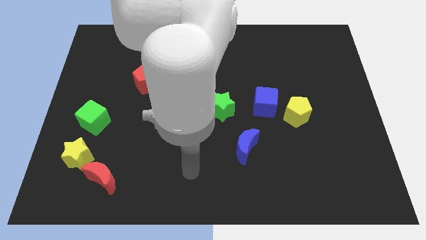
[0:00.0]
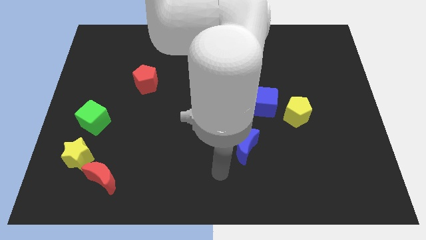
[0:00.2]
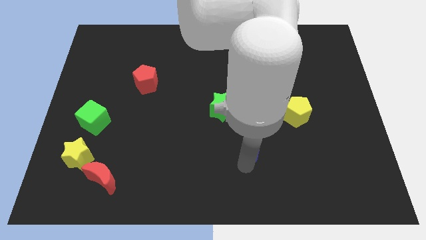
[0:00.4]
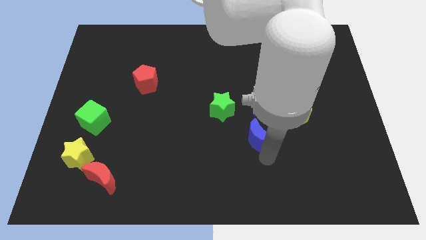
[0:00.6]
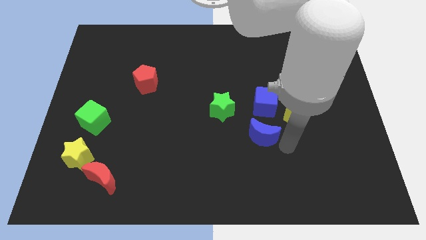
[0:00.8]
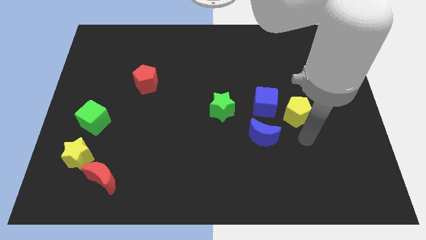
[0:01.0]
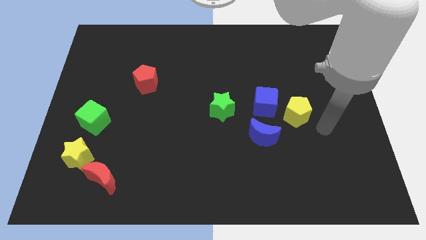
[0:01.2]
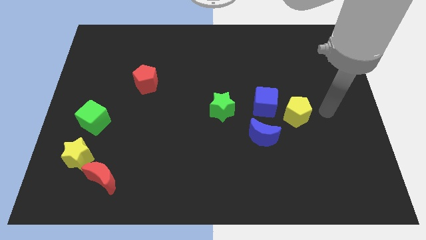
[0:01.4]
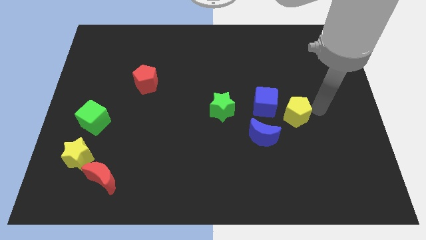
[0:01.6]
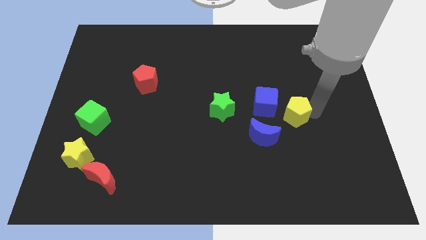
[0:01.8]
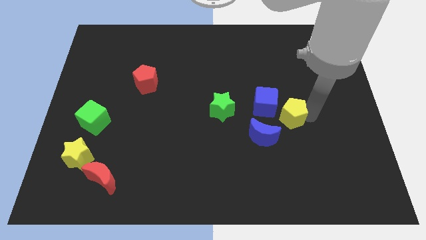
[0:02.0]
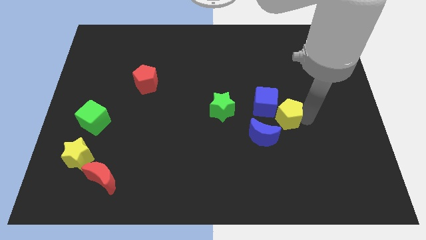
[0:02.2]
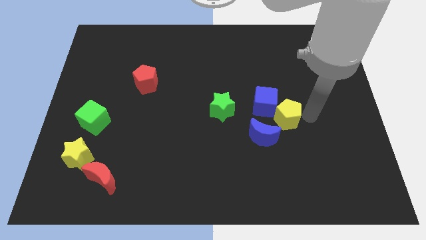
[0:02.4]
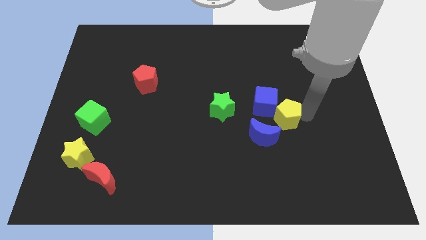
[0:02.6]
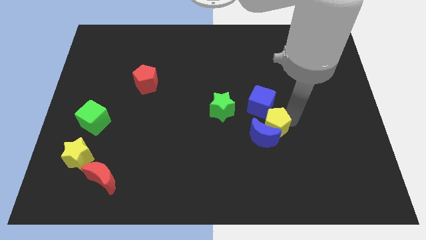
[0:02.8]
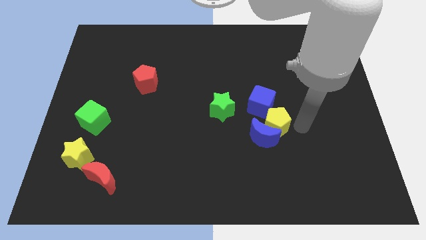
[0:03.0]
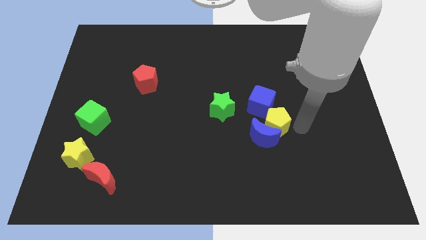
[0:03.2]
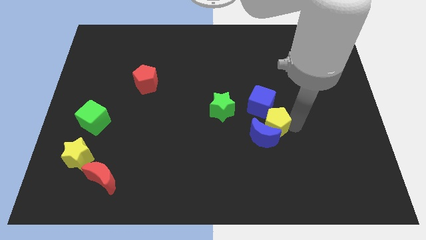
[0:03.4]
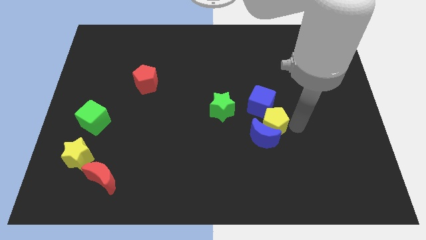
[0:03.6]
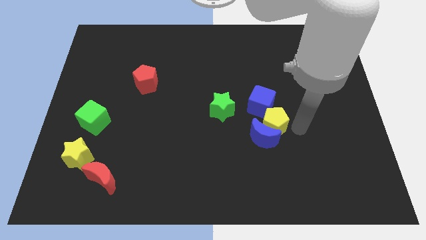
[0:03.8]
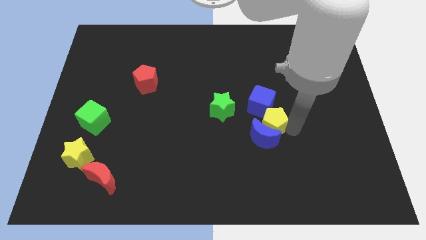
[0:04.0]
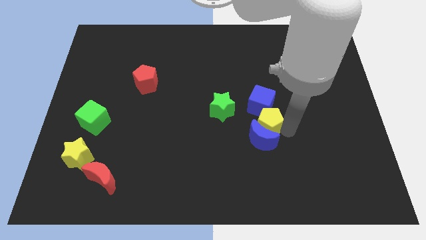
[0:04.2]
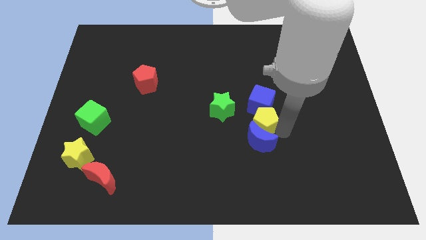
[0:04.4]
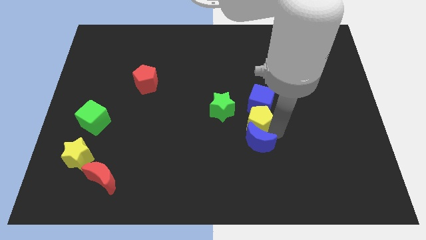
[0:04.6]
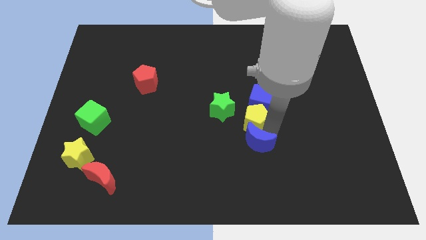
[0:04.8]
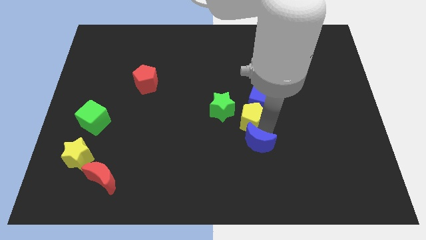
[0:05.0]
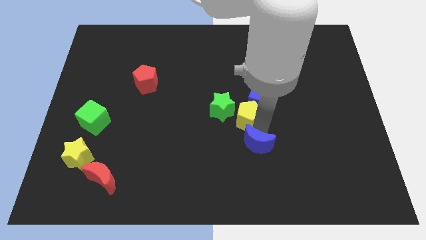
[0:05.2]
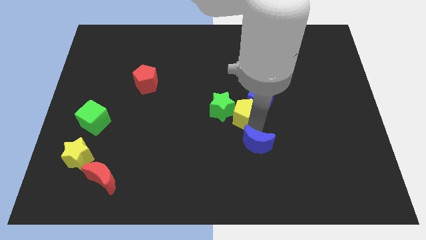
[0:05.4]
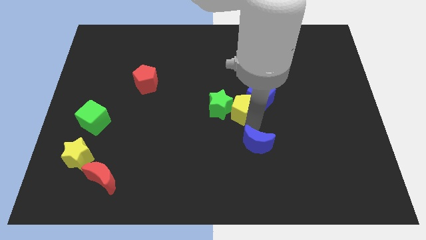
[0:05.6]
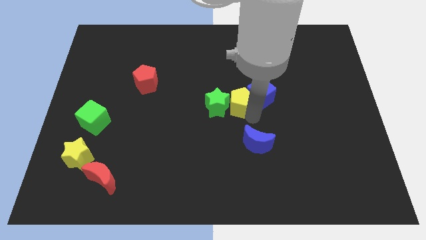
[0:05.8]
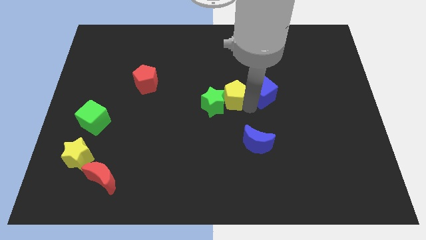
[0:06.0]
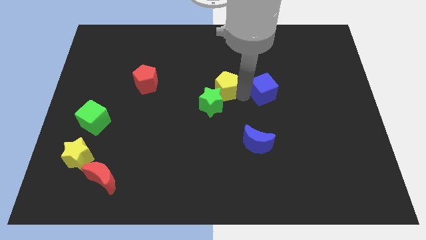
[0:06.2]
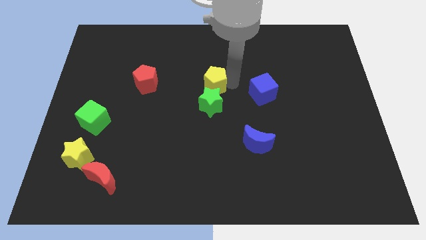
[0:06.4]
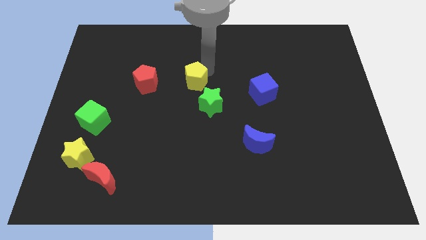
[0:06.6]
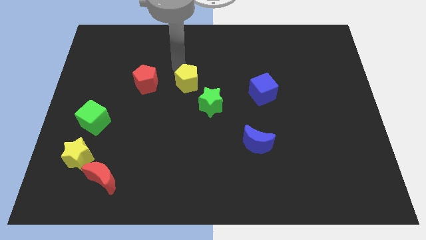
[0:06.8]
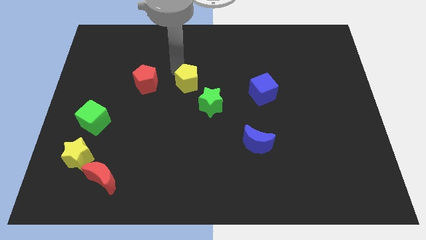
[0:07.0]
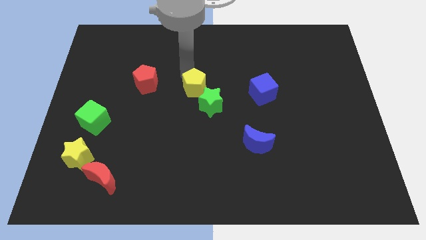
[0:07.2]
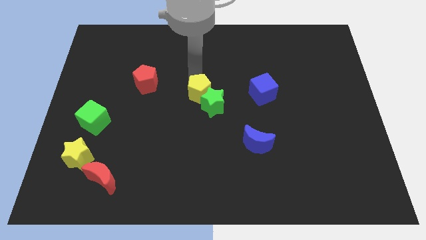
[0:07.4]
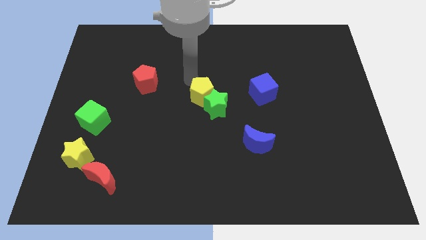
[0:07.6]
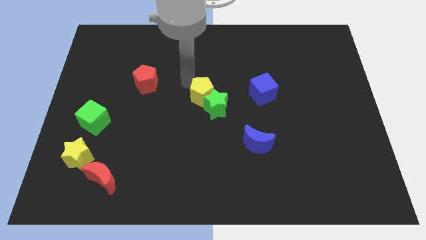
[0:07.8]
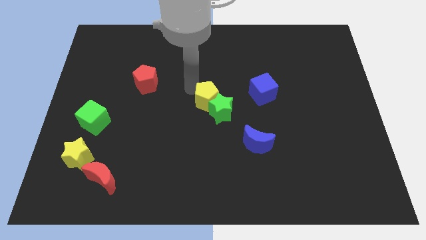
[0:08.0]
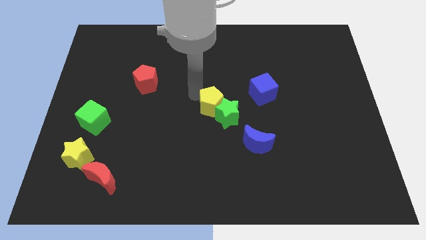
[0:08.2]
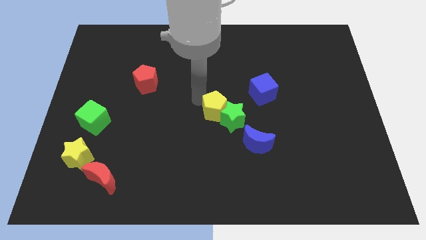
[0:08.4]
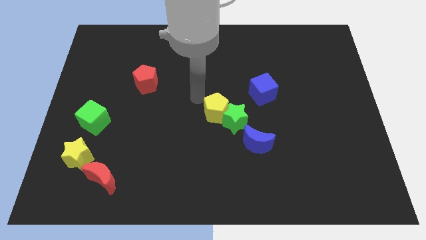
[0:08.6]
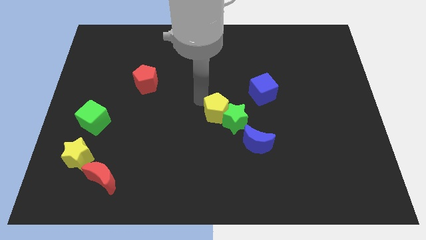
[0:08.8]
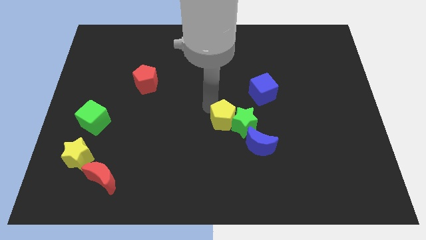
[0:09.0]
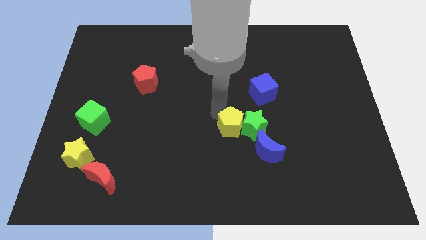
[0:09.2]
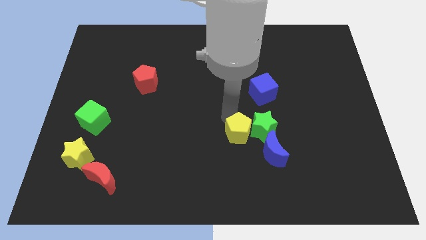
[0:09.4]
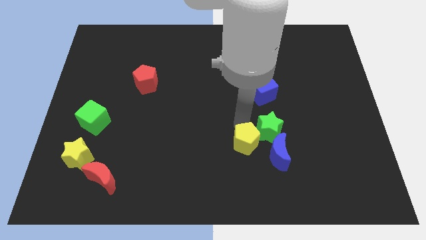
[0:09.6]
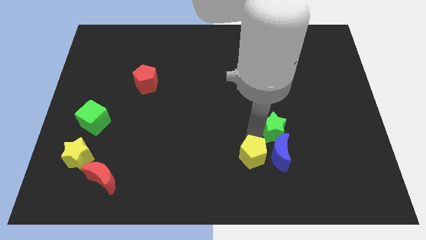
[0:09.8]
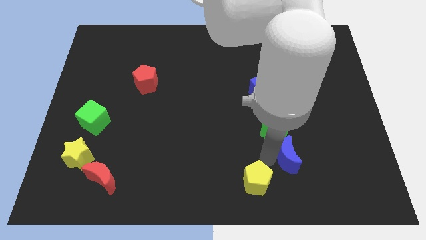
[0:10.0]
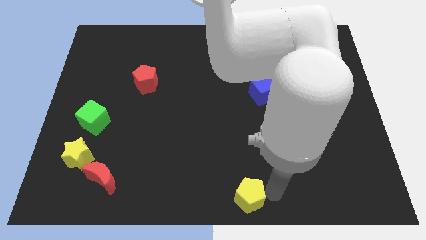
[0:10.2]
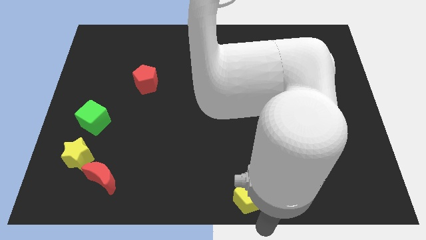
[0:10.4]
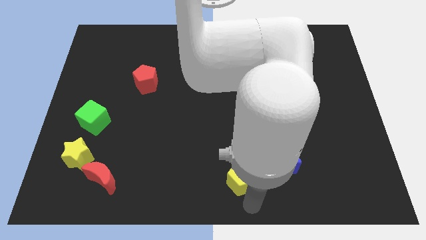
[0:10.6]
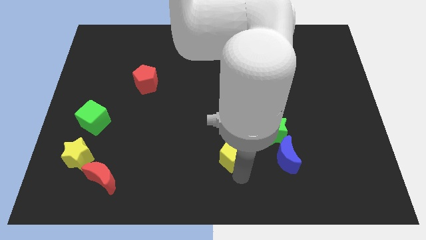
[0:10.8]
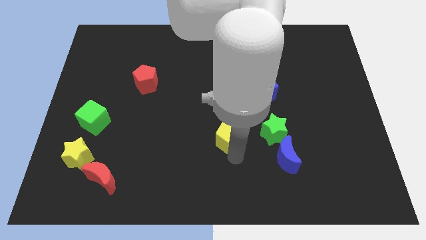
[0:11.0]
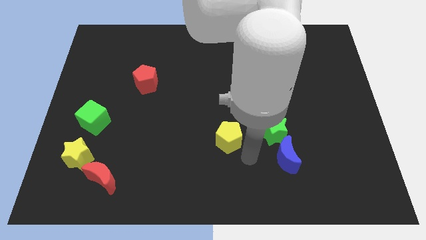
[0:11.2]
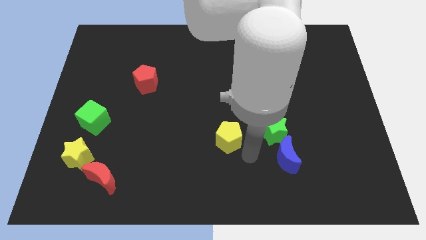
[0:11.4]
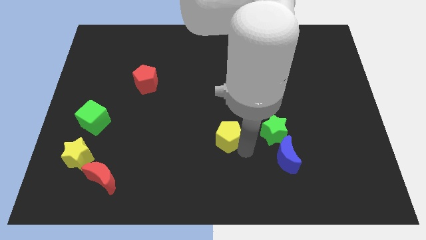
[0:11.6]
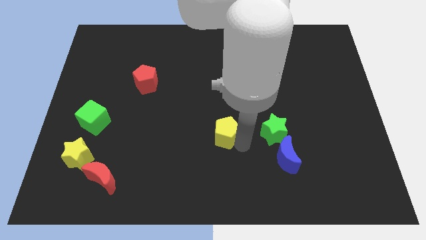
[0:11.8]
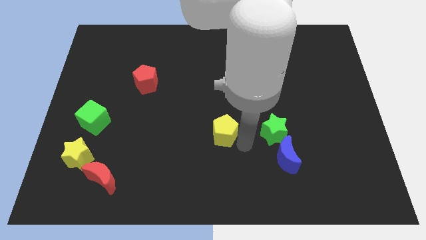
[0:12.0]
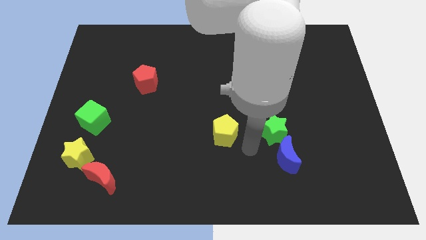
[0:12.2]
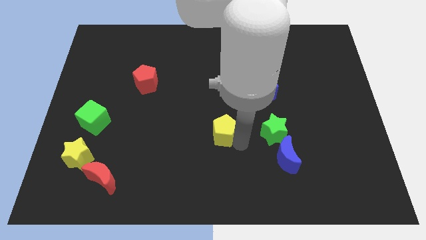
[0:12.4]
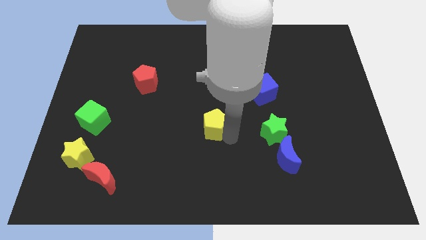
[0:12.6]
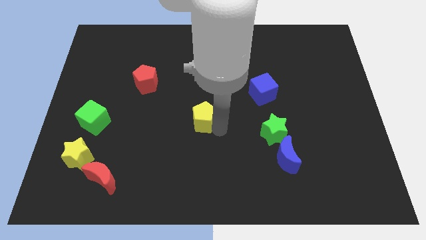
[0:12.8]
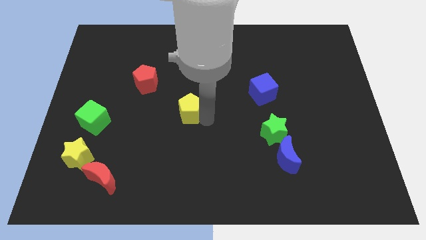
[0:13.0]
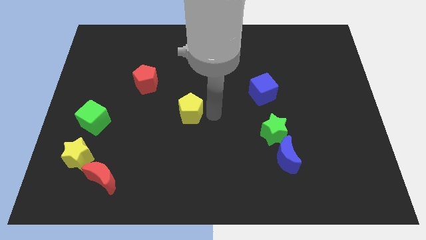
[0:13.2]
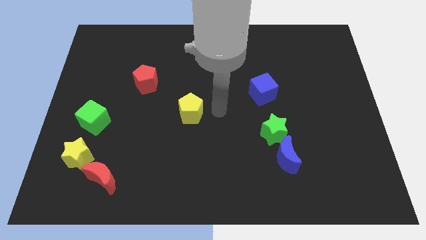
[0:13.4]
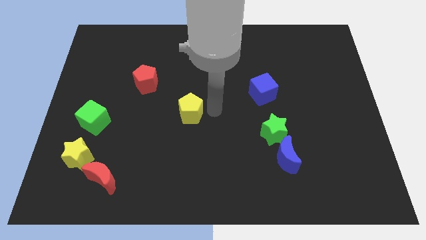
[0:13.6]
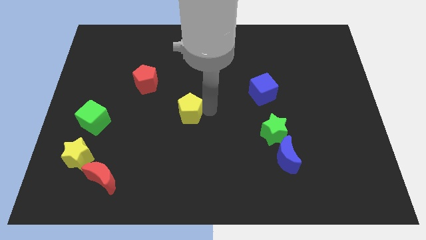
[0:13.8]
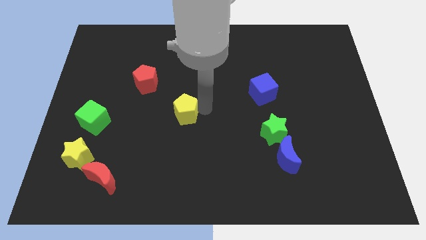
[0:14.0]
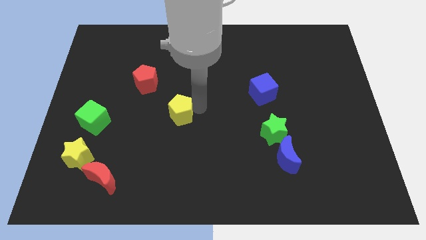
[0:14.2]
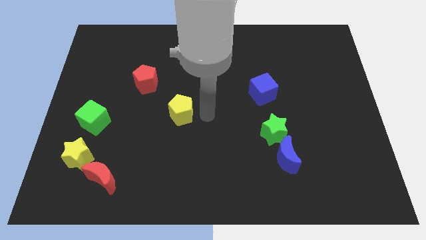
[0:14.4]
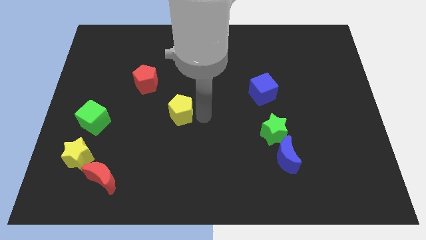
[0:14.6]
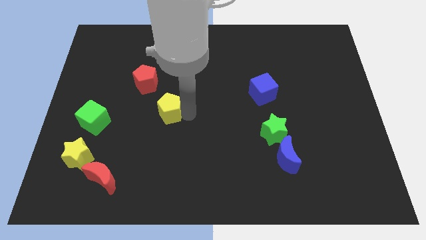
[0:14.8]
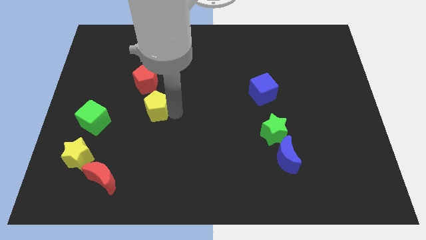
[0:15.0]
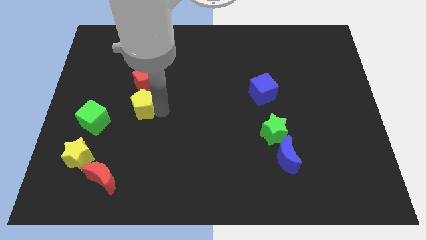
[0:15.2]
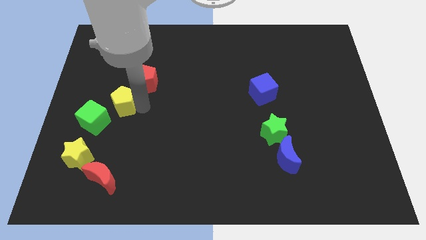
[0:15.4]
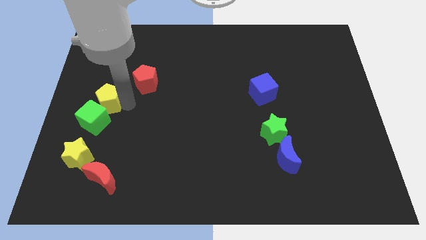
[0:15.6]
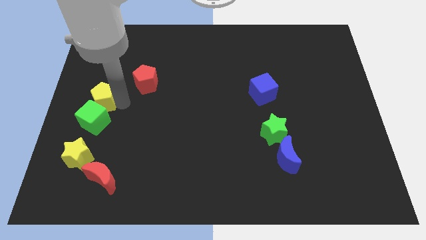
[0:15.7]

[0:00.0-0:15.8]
put the yellow pentagon to the left side of the board
